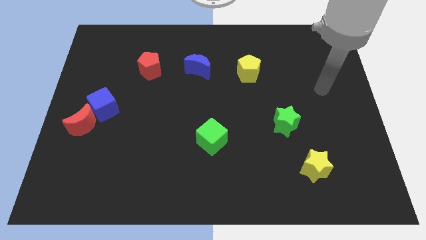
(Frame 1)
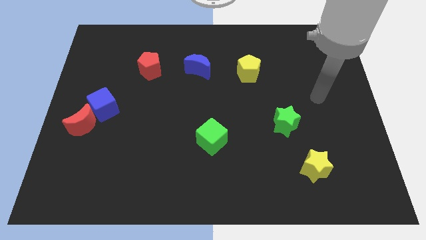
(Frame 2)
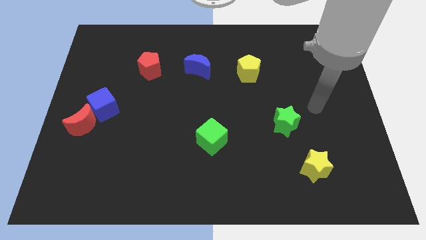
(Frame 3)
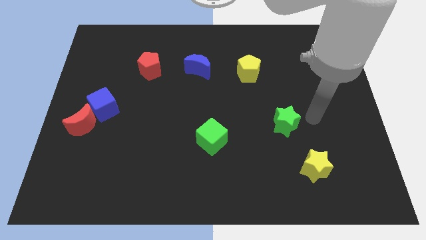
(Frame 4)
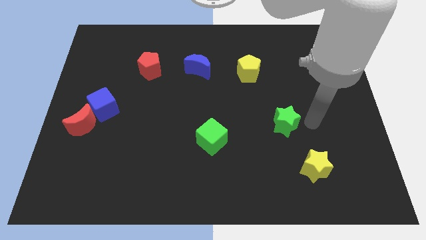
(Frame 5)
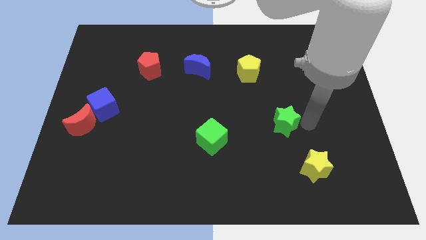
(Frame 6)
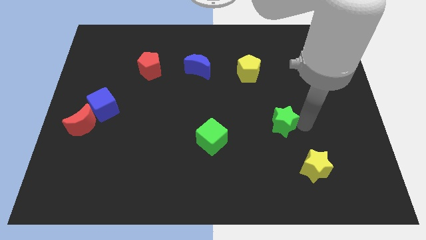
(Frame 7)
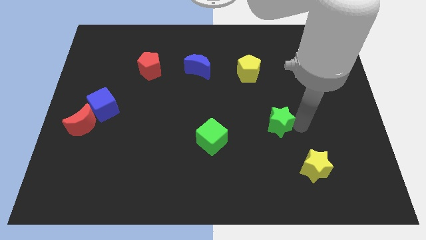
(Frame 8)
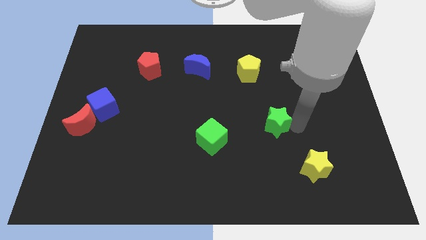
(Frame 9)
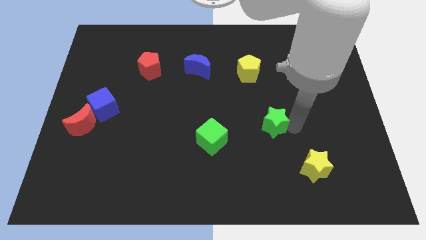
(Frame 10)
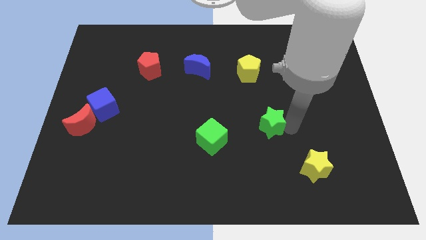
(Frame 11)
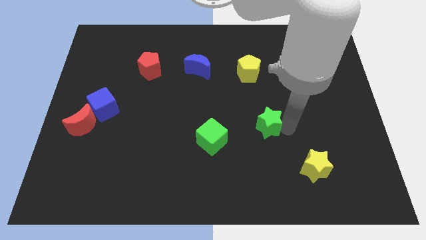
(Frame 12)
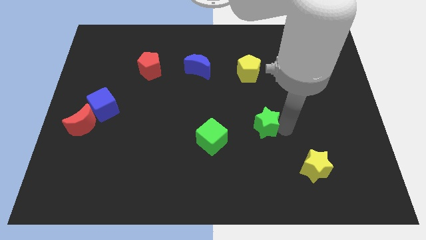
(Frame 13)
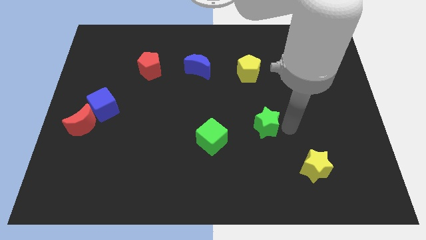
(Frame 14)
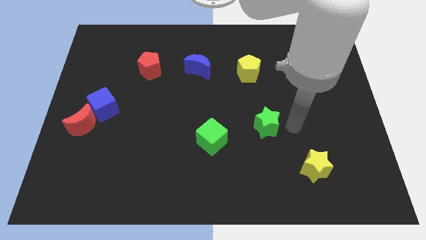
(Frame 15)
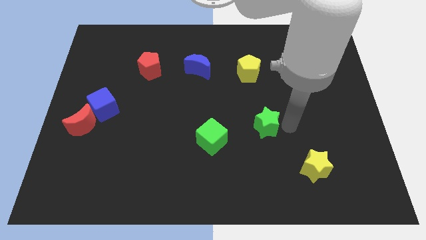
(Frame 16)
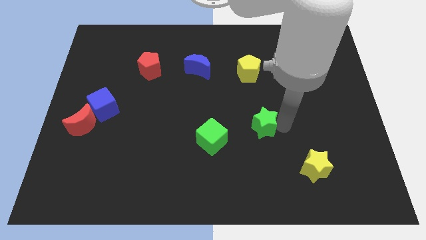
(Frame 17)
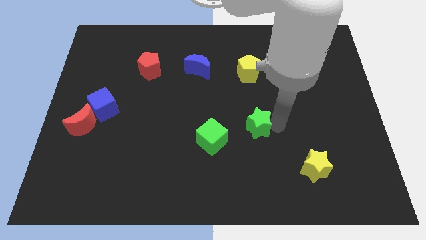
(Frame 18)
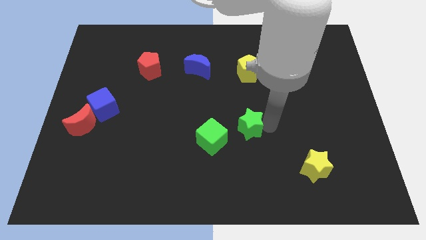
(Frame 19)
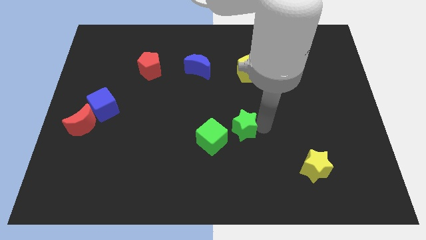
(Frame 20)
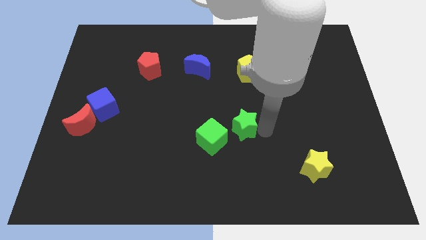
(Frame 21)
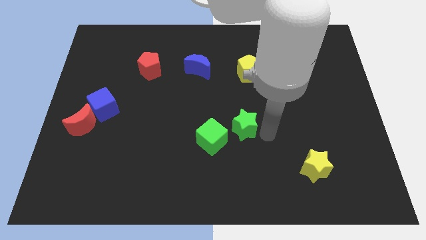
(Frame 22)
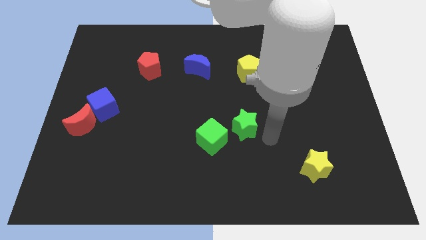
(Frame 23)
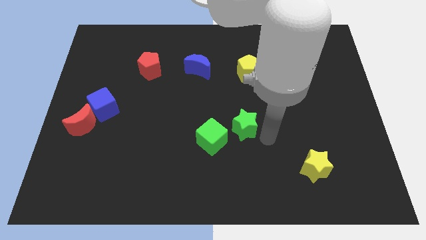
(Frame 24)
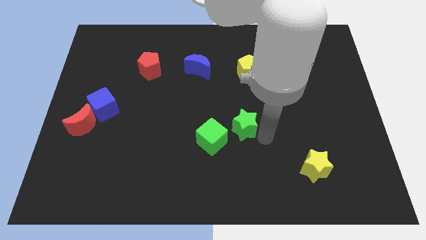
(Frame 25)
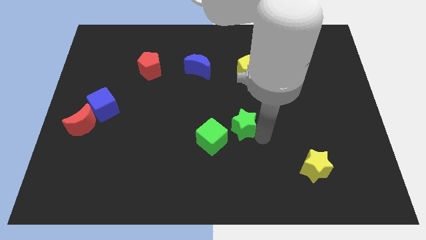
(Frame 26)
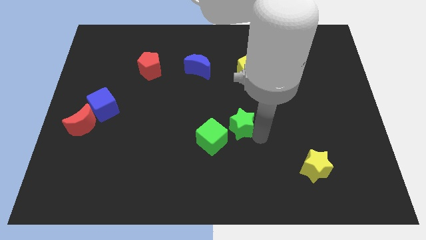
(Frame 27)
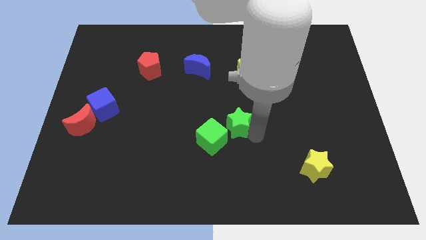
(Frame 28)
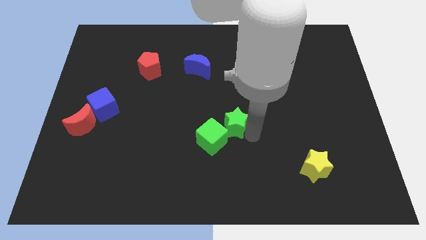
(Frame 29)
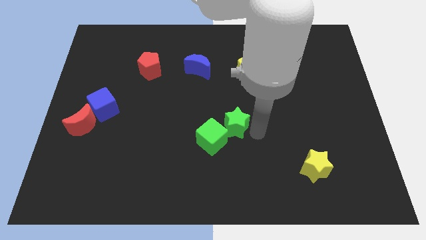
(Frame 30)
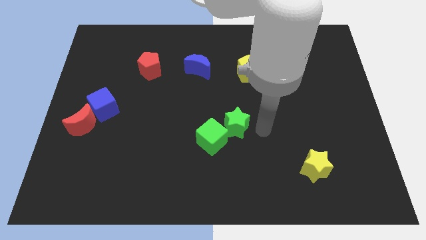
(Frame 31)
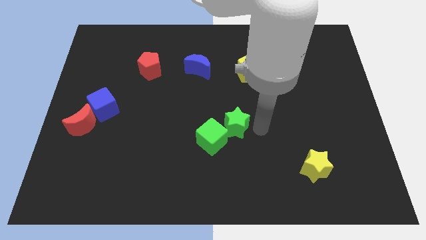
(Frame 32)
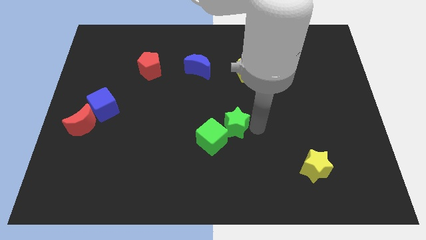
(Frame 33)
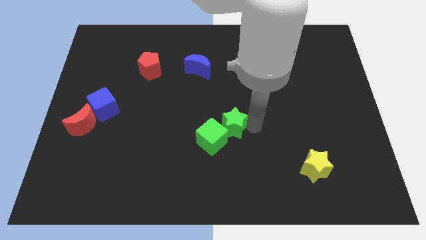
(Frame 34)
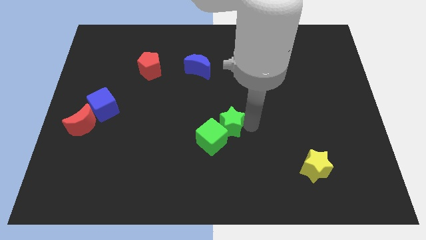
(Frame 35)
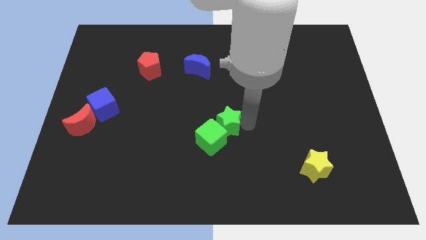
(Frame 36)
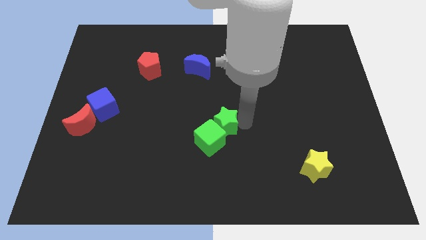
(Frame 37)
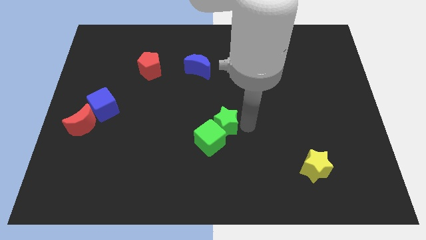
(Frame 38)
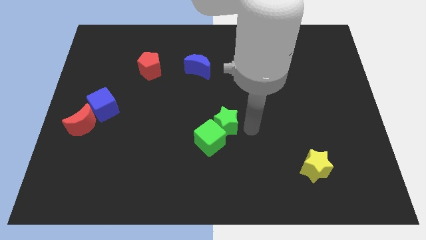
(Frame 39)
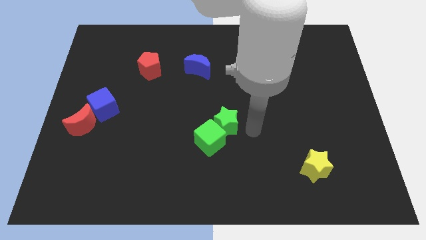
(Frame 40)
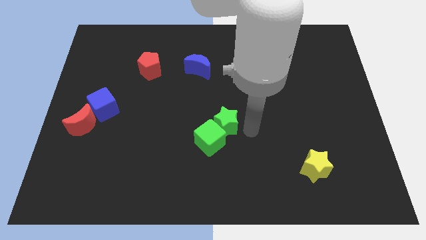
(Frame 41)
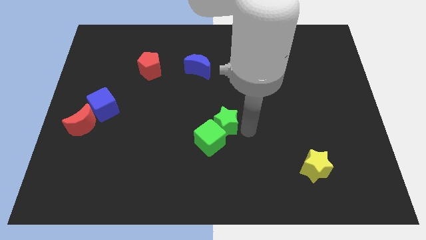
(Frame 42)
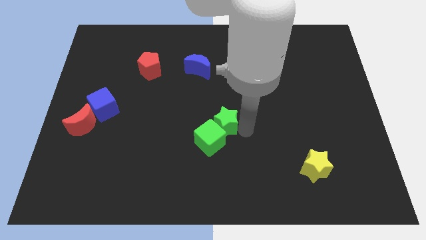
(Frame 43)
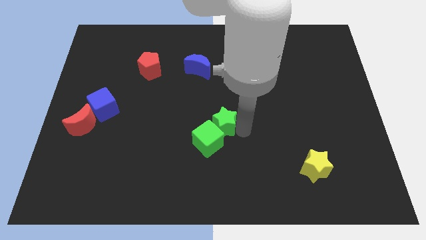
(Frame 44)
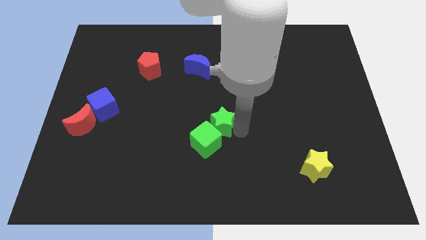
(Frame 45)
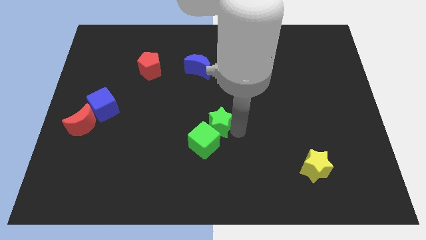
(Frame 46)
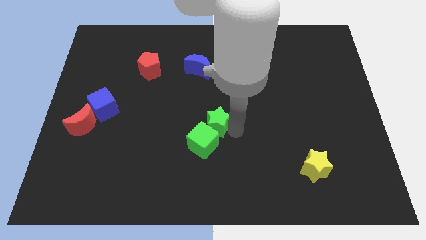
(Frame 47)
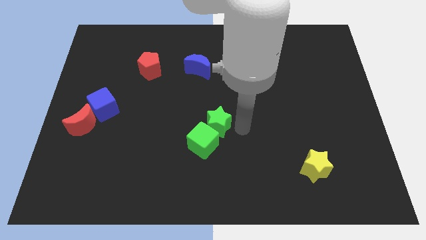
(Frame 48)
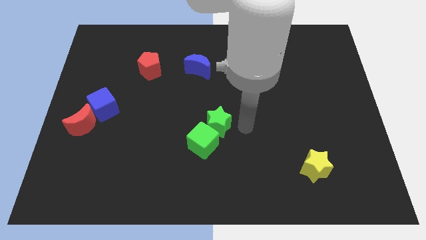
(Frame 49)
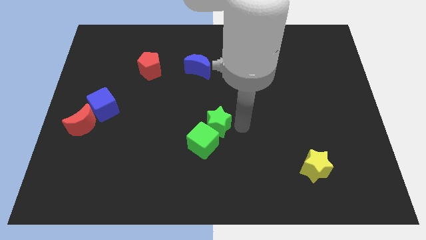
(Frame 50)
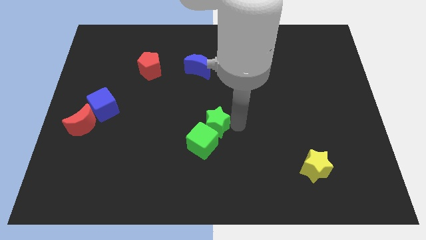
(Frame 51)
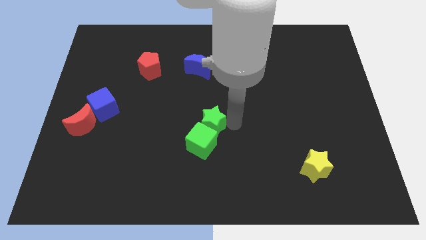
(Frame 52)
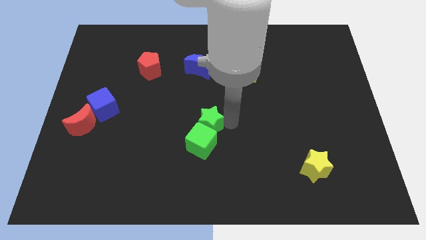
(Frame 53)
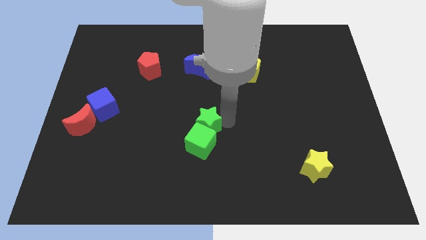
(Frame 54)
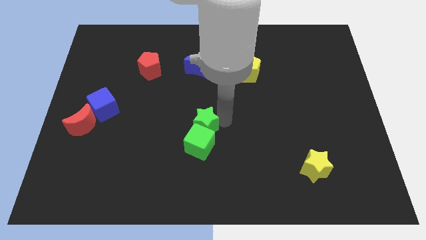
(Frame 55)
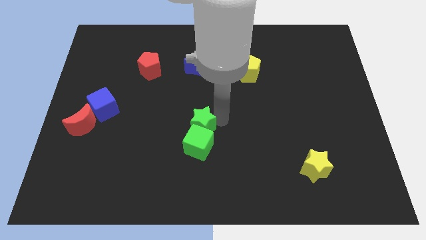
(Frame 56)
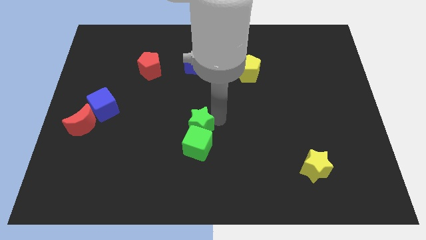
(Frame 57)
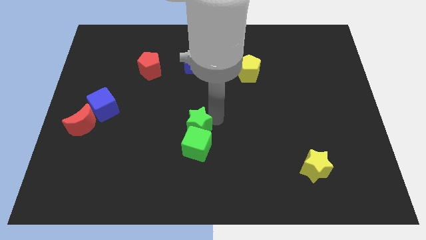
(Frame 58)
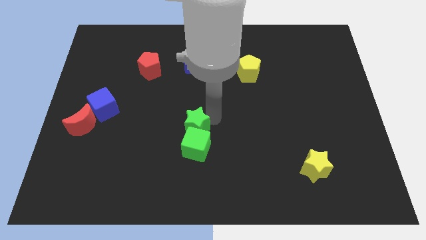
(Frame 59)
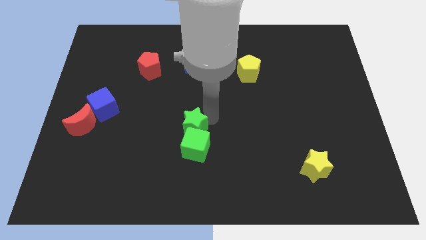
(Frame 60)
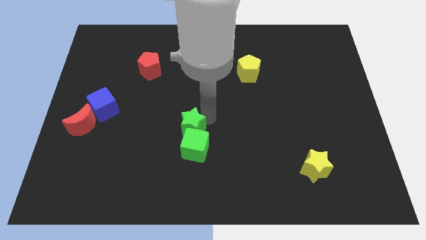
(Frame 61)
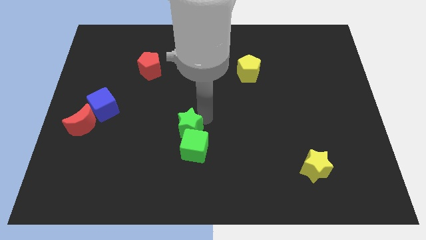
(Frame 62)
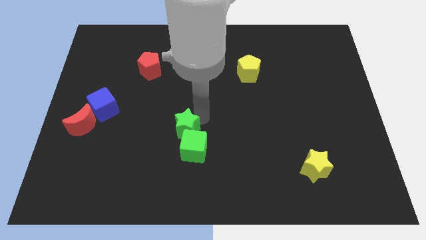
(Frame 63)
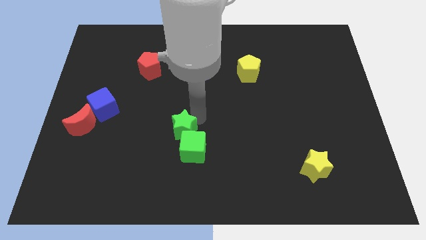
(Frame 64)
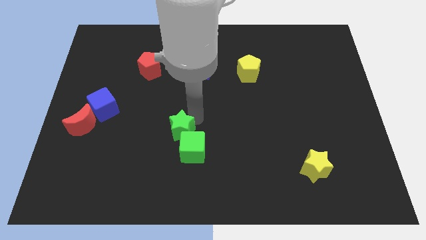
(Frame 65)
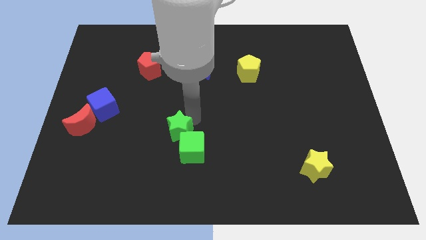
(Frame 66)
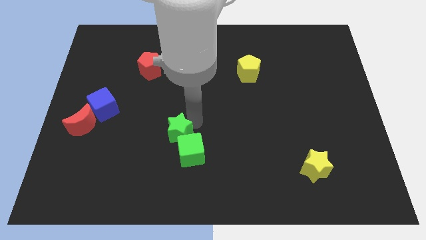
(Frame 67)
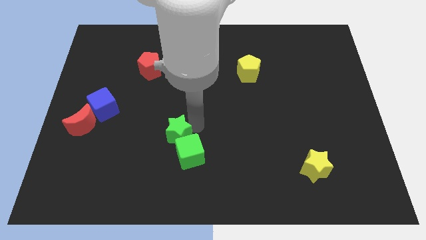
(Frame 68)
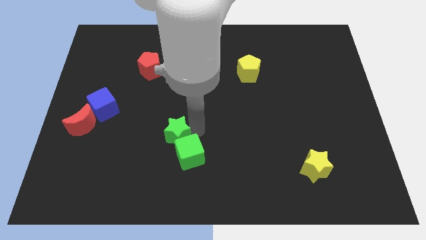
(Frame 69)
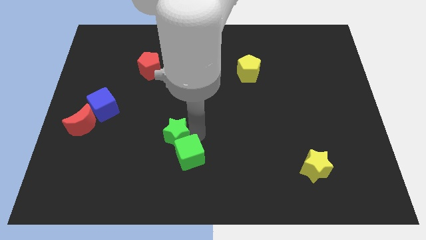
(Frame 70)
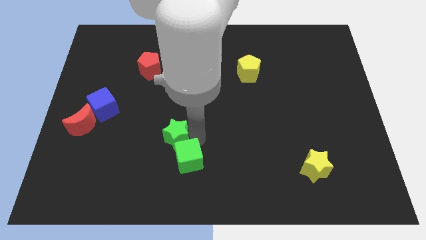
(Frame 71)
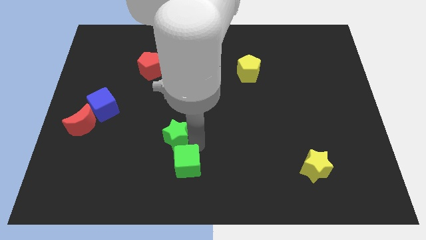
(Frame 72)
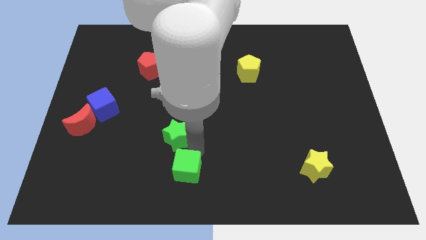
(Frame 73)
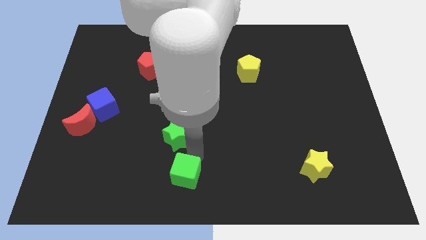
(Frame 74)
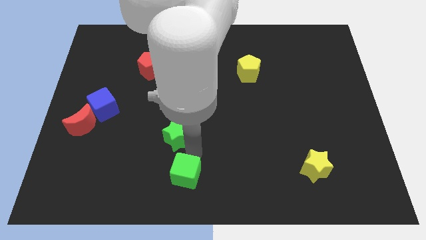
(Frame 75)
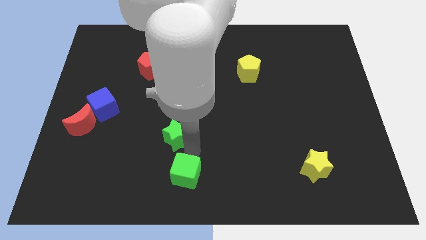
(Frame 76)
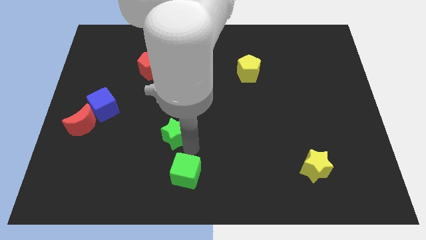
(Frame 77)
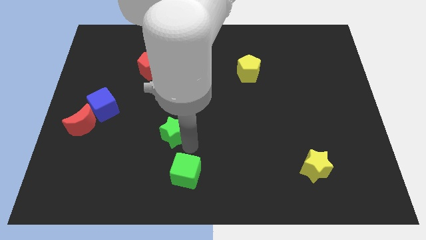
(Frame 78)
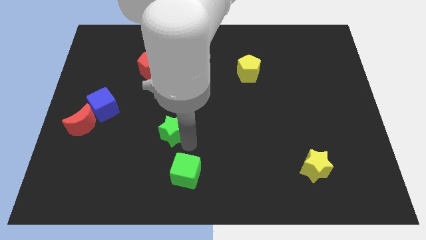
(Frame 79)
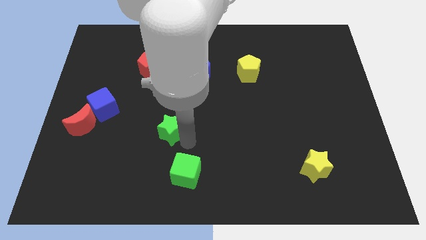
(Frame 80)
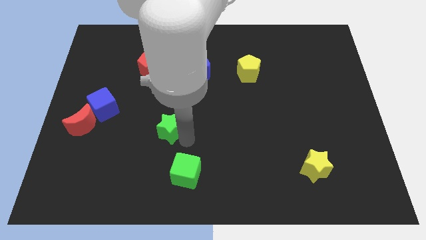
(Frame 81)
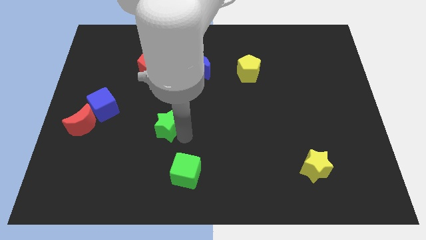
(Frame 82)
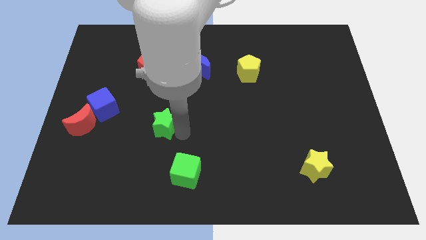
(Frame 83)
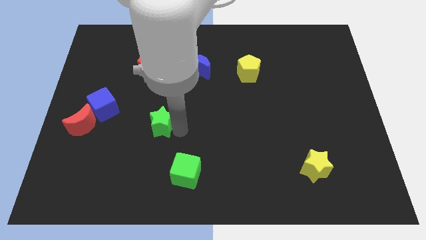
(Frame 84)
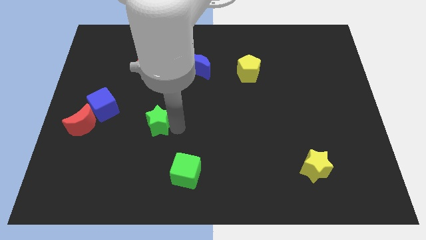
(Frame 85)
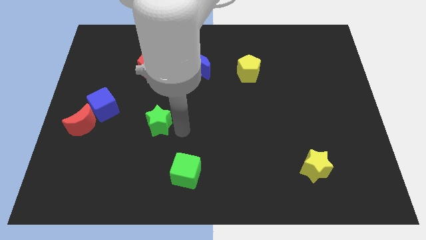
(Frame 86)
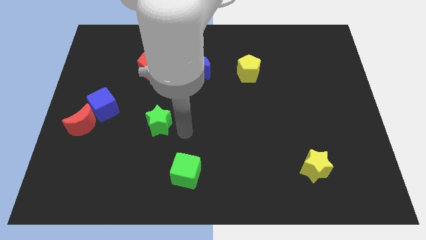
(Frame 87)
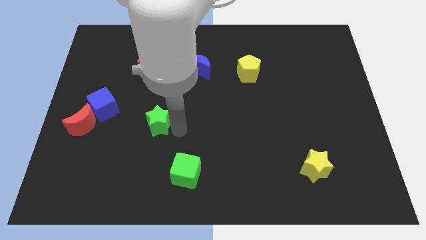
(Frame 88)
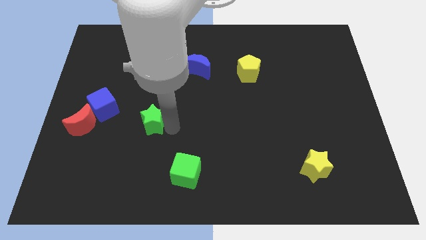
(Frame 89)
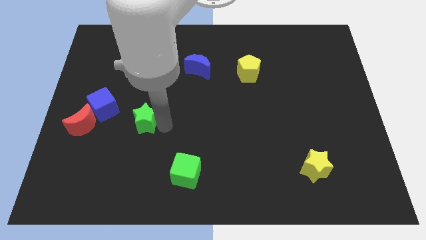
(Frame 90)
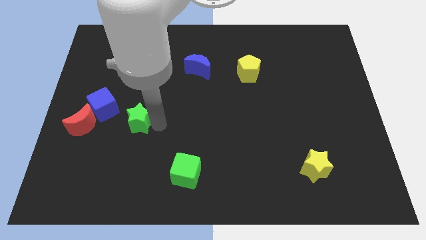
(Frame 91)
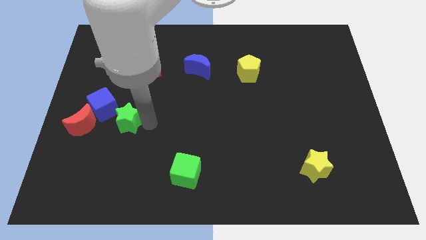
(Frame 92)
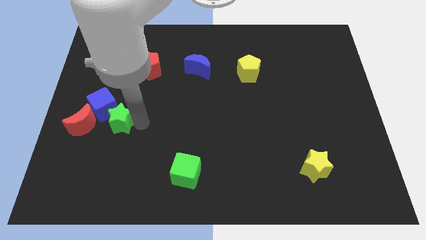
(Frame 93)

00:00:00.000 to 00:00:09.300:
push the green star towards the blue cube
